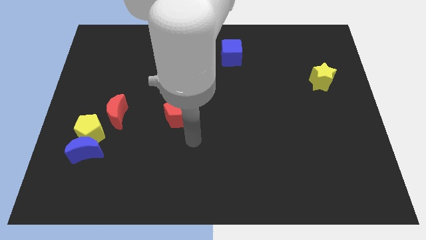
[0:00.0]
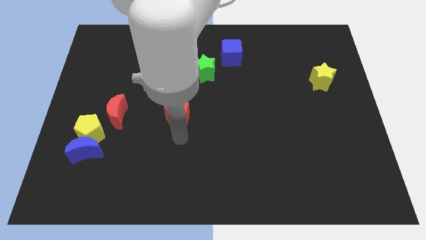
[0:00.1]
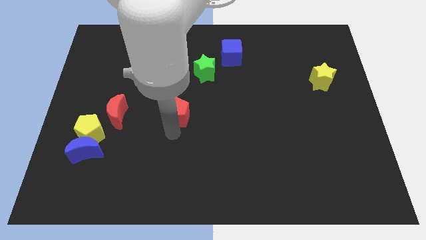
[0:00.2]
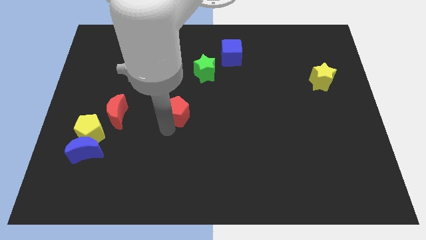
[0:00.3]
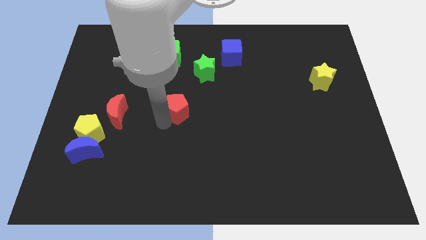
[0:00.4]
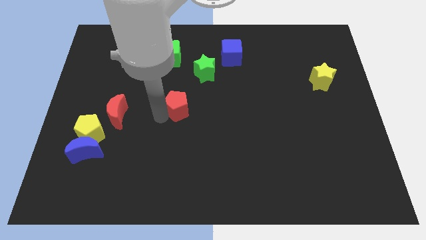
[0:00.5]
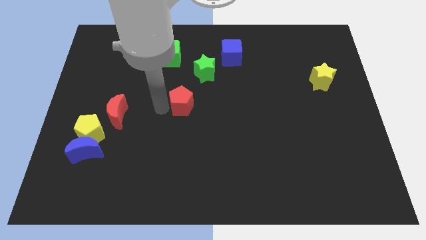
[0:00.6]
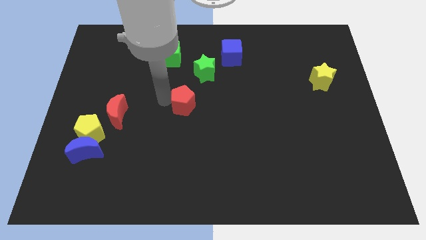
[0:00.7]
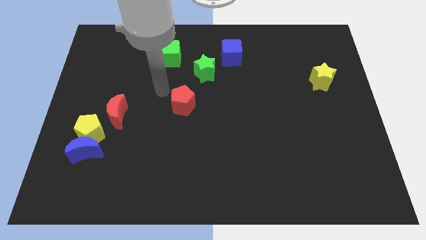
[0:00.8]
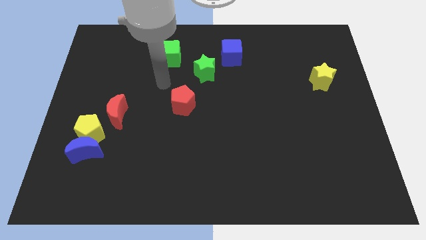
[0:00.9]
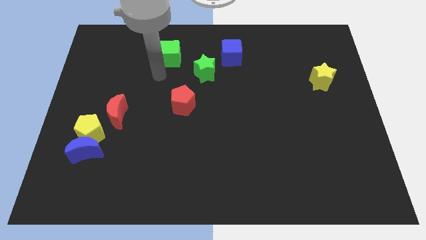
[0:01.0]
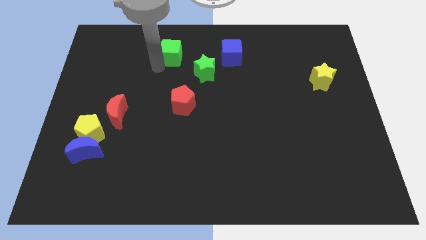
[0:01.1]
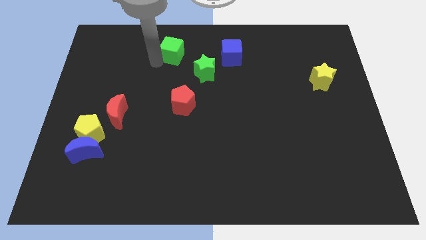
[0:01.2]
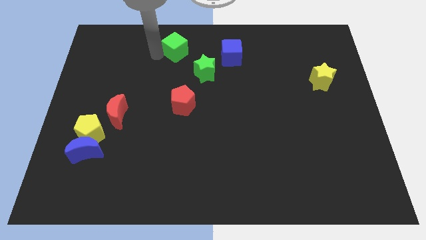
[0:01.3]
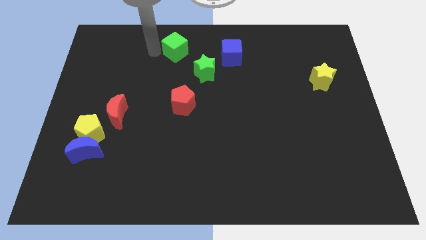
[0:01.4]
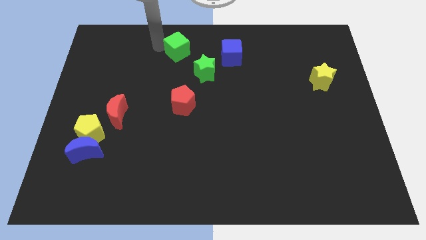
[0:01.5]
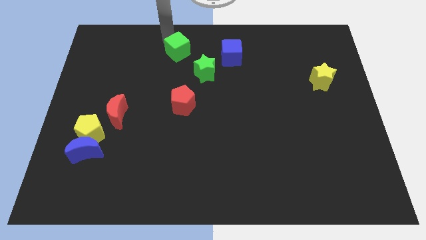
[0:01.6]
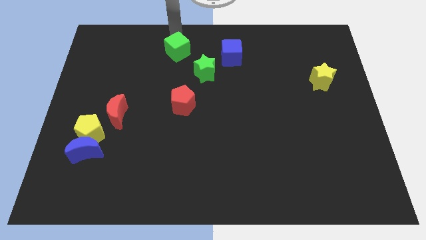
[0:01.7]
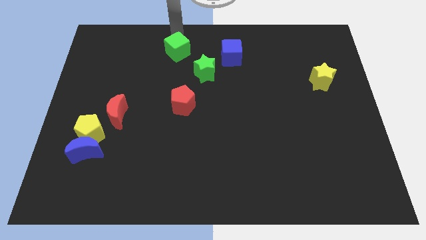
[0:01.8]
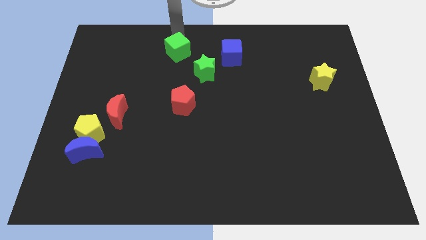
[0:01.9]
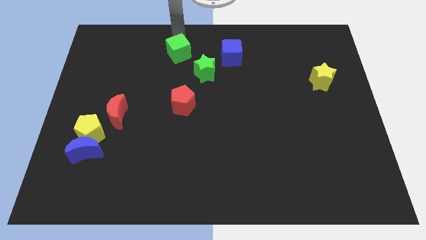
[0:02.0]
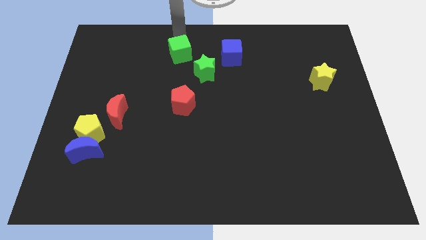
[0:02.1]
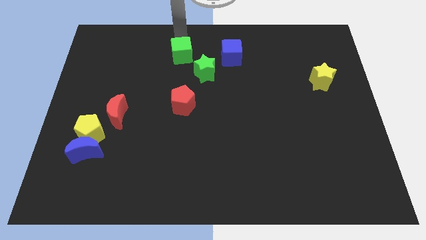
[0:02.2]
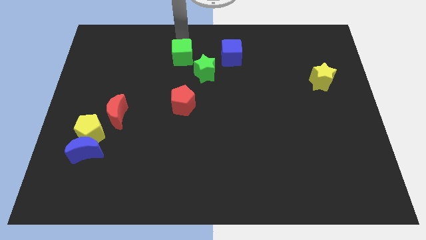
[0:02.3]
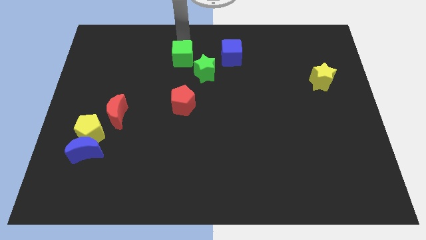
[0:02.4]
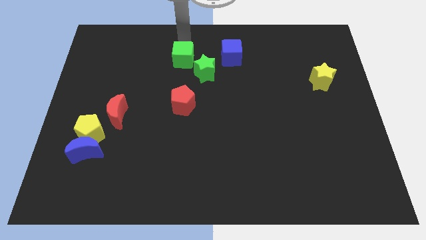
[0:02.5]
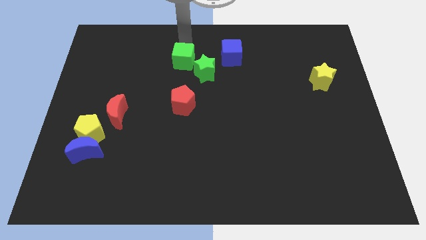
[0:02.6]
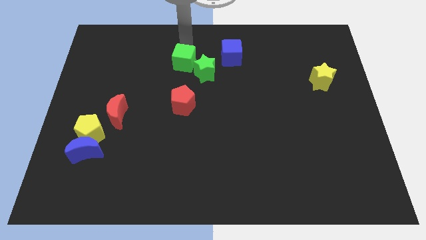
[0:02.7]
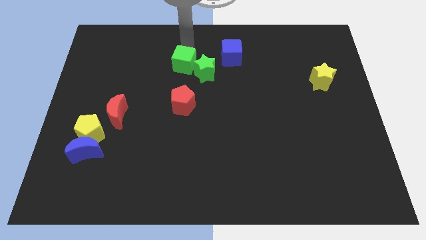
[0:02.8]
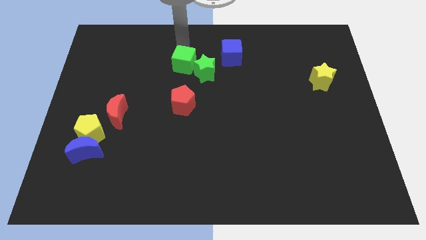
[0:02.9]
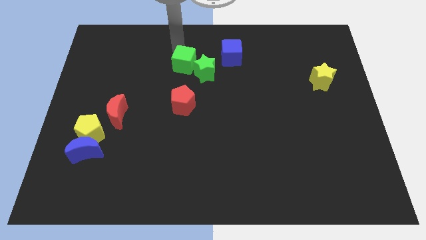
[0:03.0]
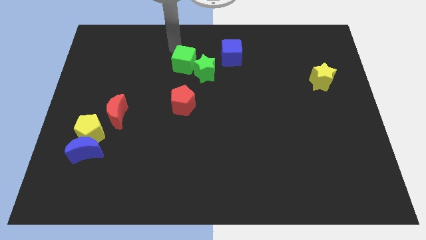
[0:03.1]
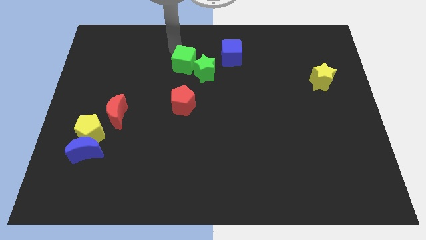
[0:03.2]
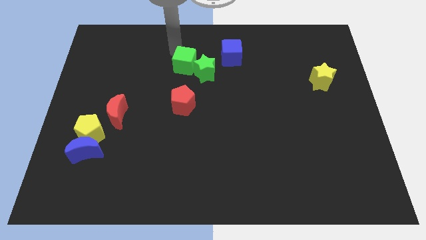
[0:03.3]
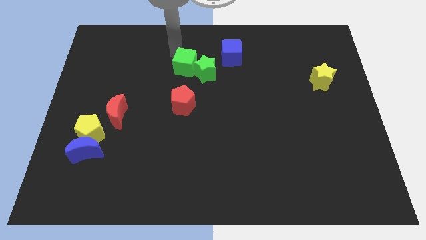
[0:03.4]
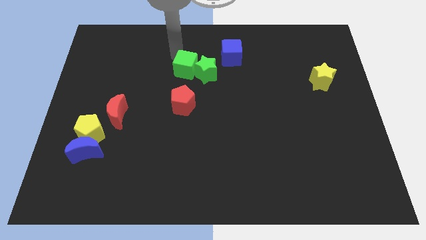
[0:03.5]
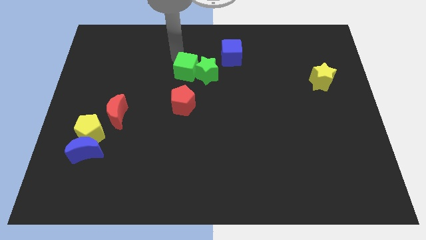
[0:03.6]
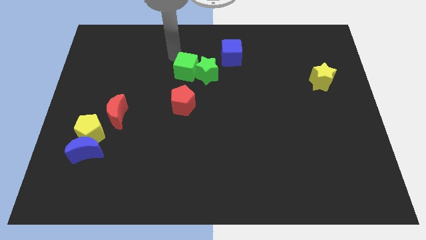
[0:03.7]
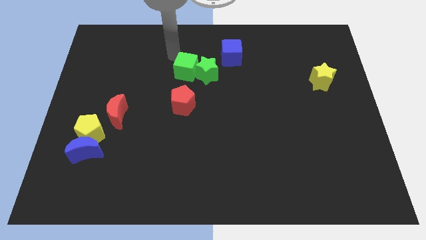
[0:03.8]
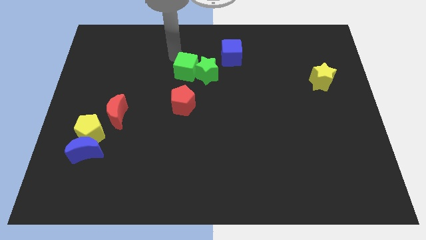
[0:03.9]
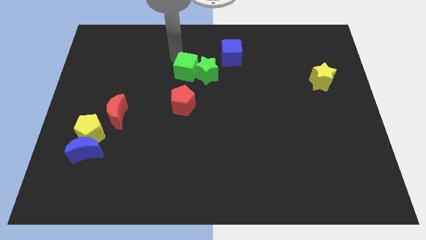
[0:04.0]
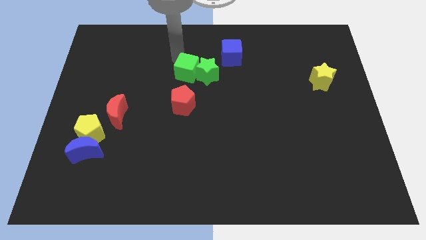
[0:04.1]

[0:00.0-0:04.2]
slightly slide the green cube down and to the right

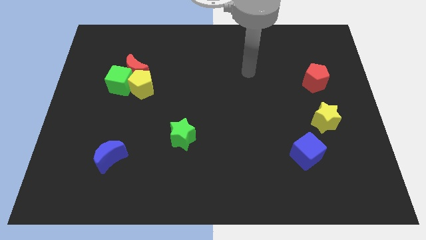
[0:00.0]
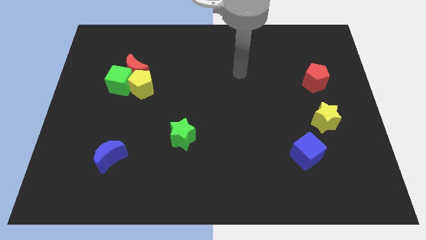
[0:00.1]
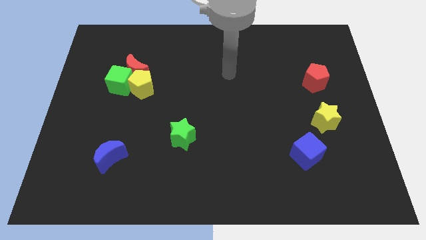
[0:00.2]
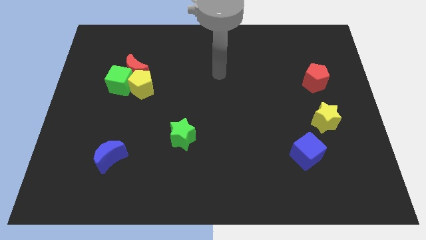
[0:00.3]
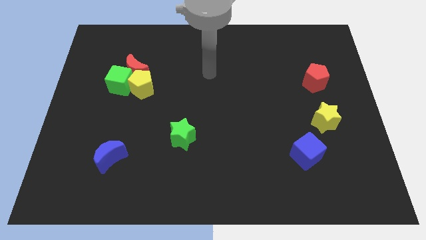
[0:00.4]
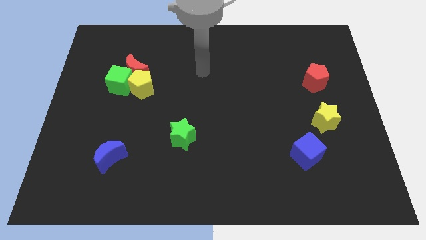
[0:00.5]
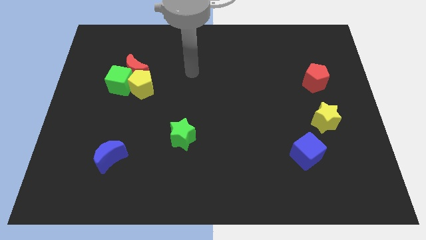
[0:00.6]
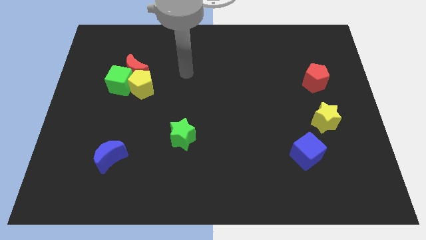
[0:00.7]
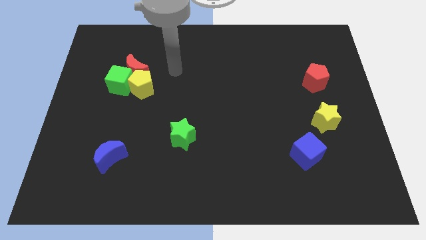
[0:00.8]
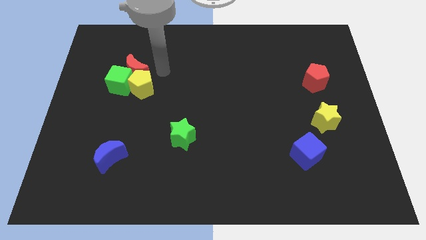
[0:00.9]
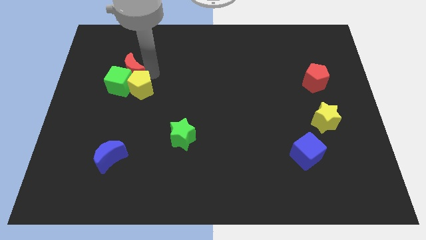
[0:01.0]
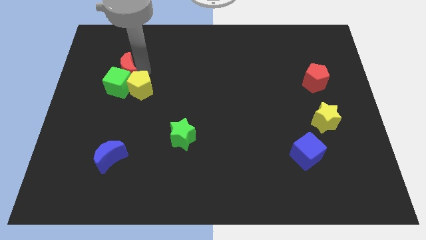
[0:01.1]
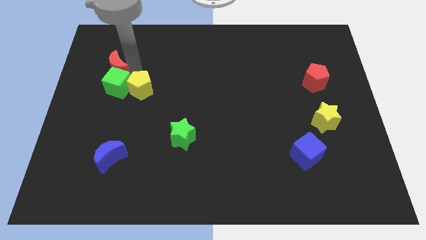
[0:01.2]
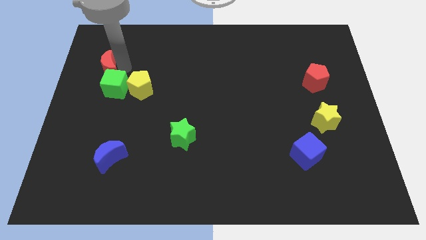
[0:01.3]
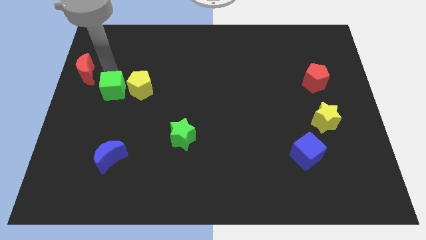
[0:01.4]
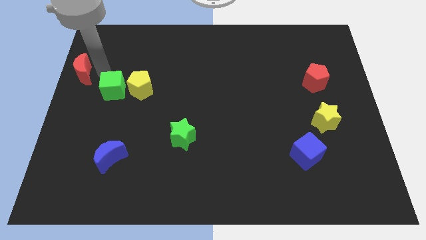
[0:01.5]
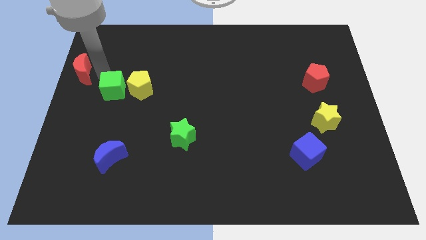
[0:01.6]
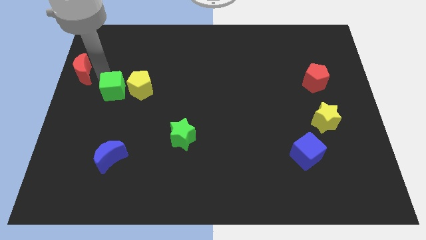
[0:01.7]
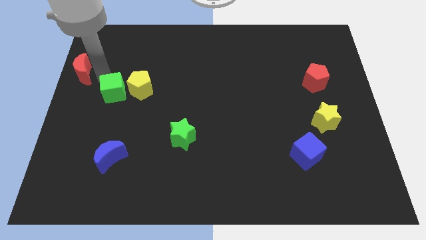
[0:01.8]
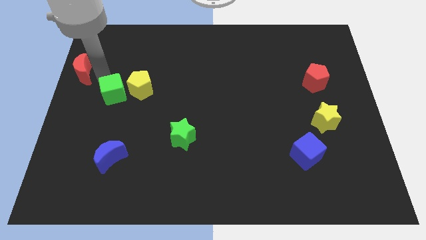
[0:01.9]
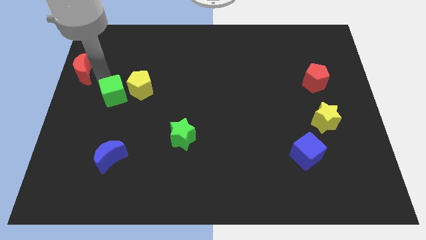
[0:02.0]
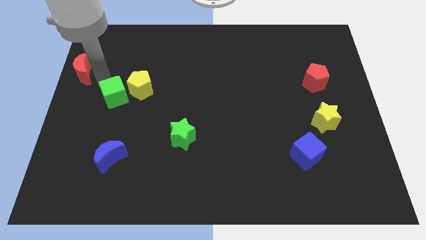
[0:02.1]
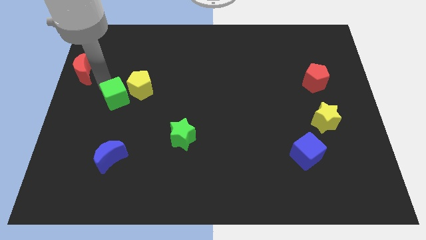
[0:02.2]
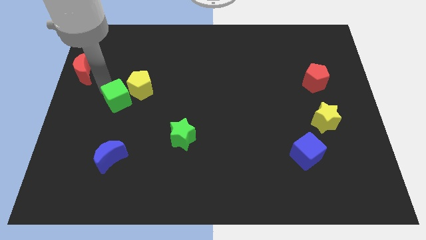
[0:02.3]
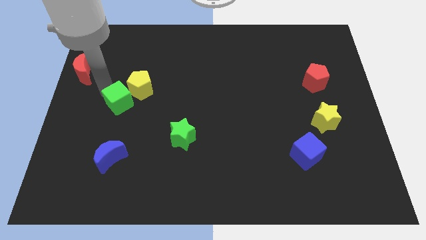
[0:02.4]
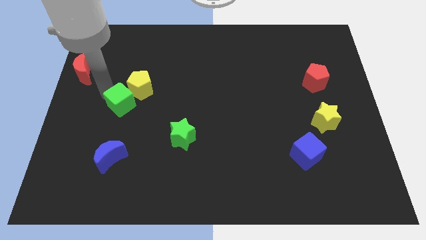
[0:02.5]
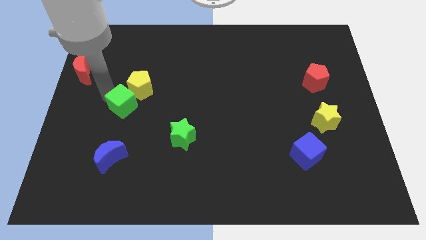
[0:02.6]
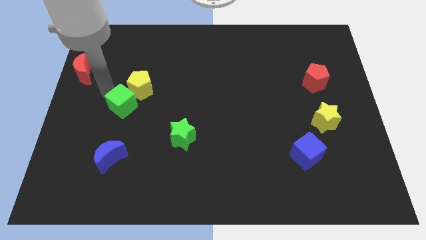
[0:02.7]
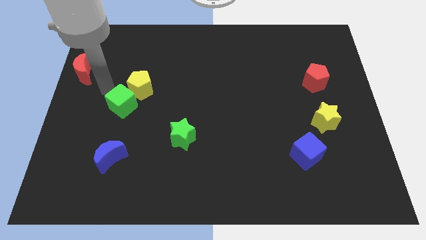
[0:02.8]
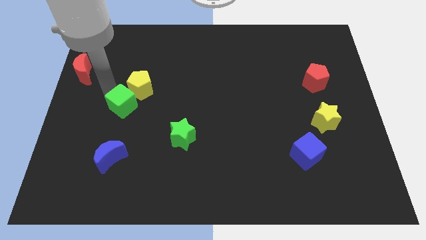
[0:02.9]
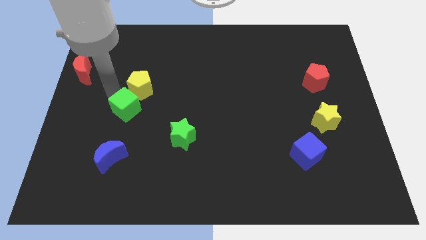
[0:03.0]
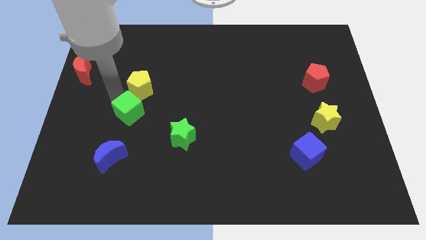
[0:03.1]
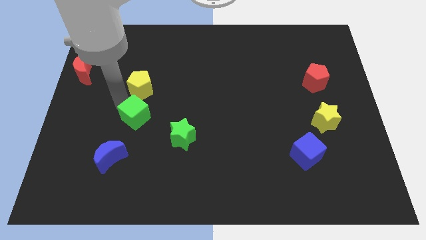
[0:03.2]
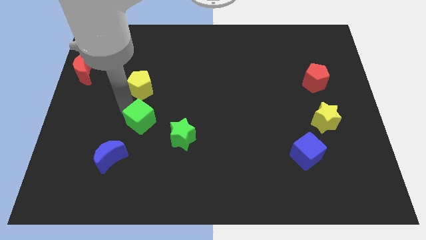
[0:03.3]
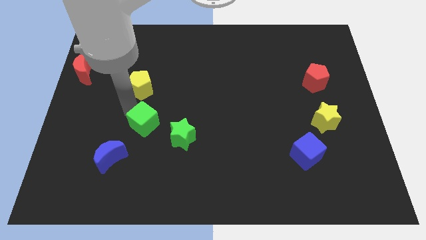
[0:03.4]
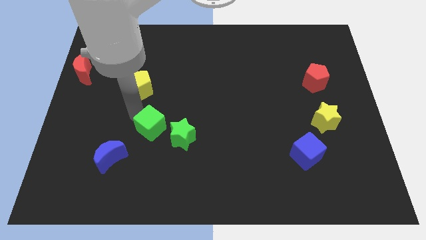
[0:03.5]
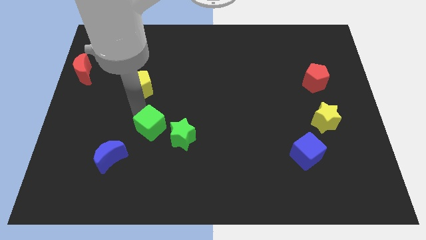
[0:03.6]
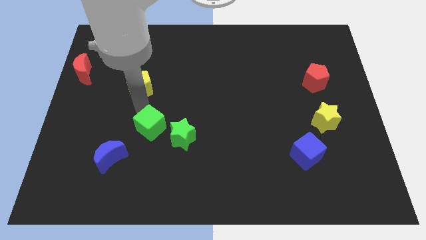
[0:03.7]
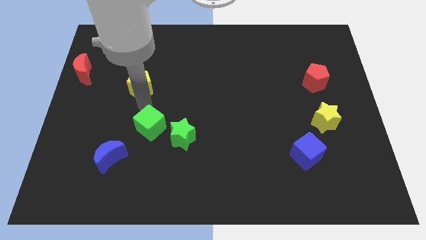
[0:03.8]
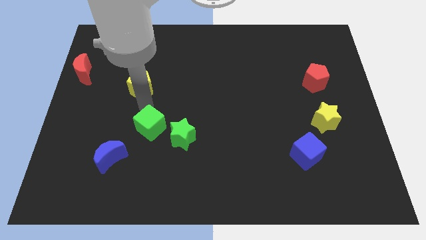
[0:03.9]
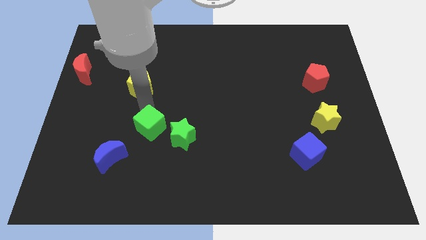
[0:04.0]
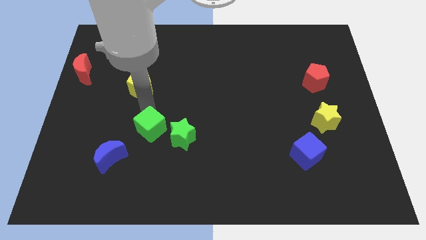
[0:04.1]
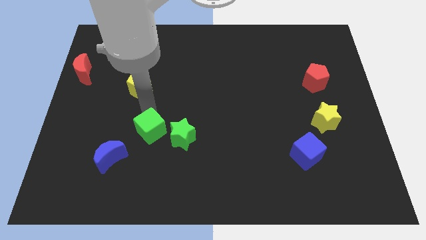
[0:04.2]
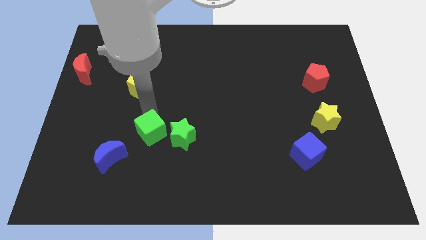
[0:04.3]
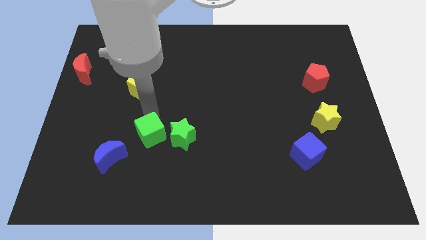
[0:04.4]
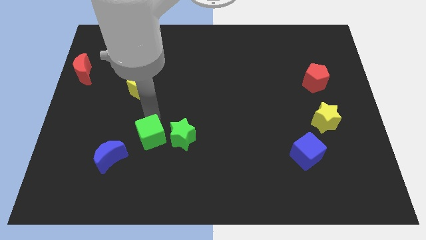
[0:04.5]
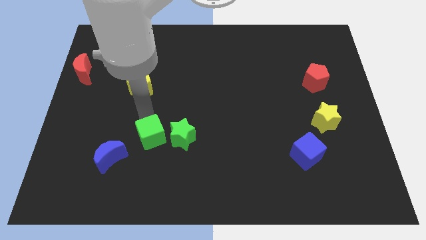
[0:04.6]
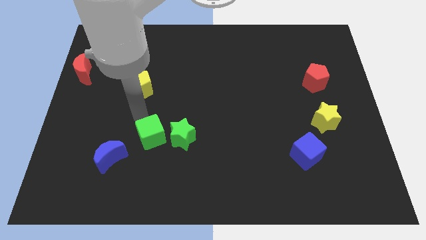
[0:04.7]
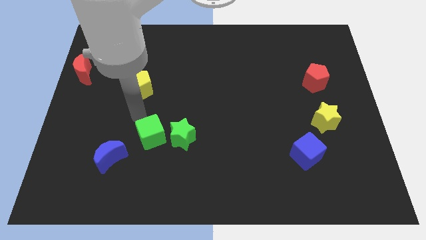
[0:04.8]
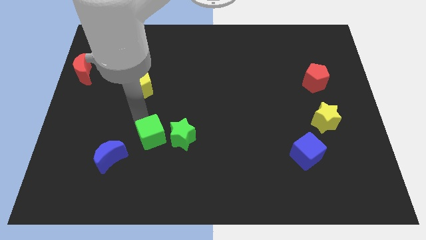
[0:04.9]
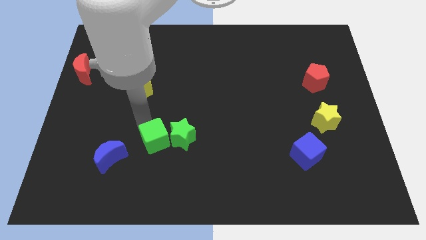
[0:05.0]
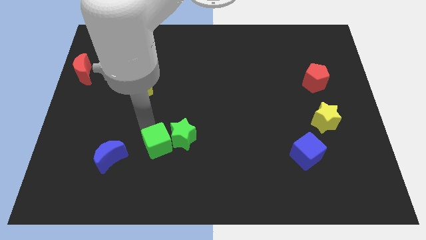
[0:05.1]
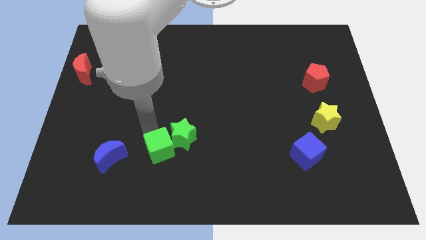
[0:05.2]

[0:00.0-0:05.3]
push the green cube down and to the right
